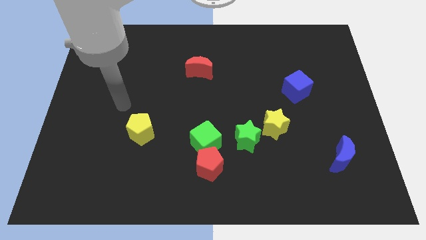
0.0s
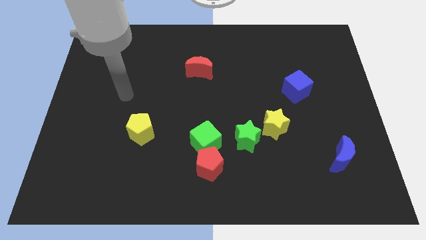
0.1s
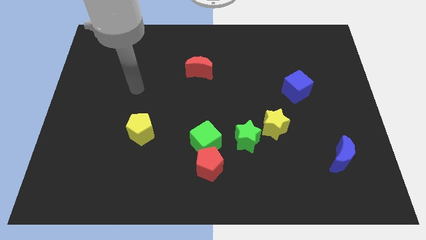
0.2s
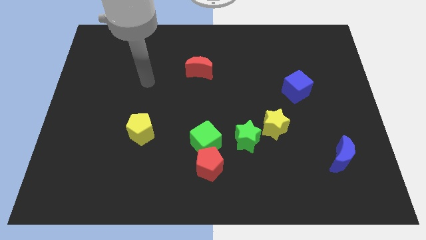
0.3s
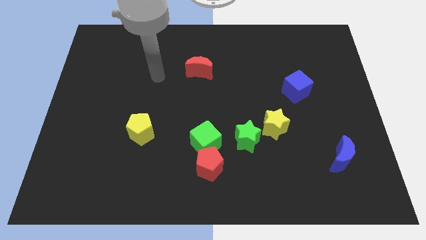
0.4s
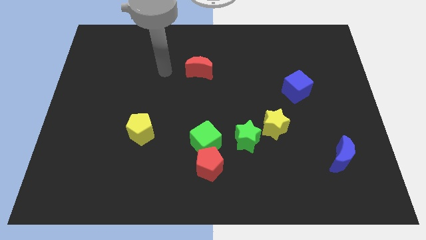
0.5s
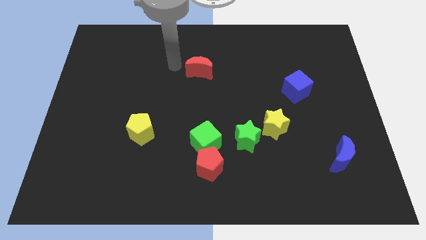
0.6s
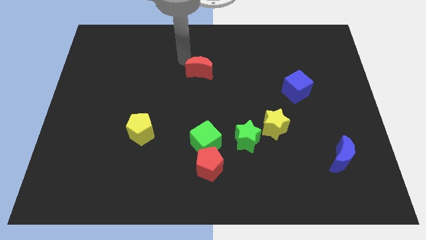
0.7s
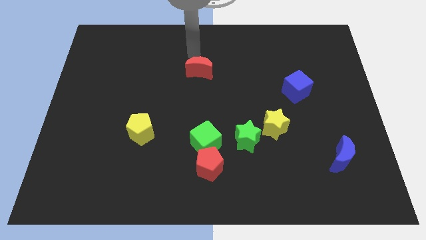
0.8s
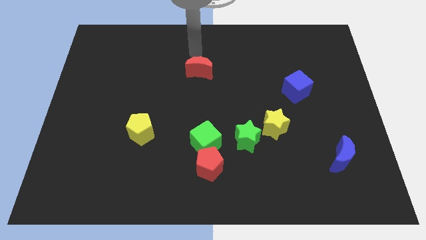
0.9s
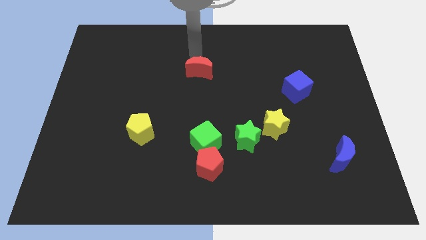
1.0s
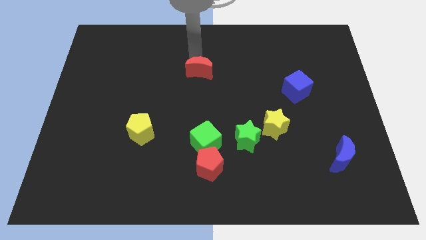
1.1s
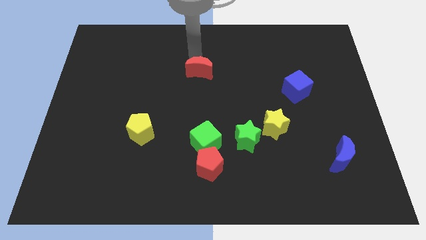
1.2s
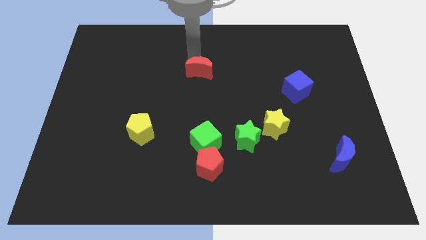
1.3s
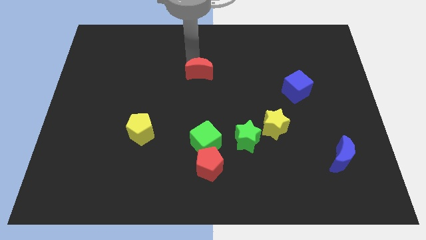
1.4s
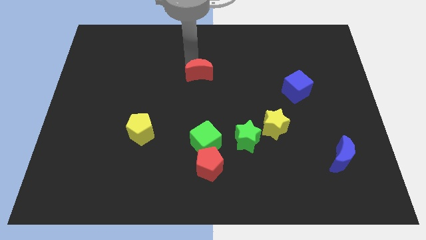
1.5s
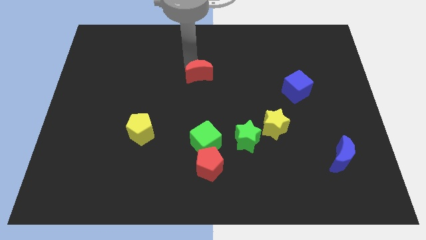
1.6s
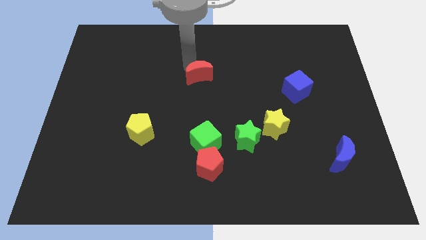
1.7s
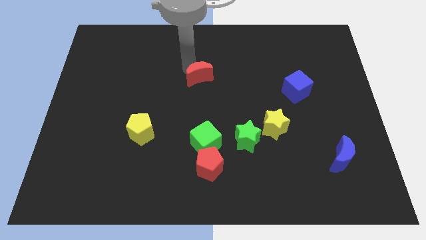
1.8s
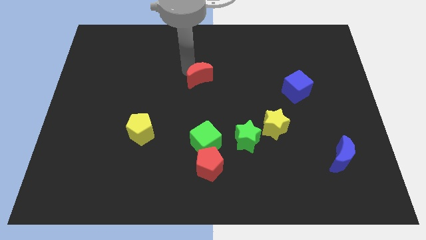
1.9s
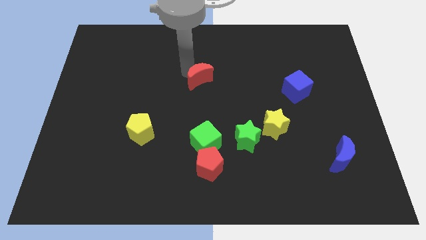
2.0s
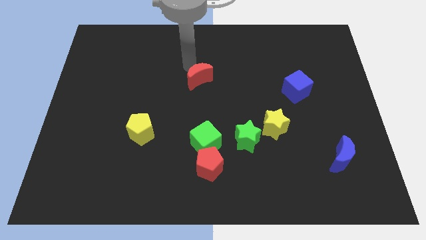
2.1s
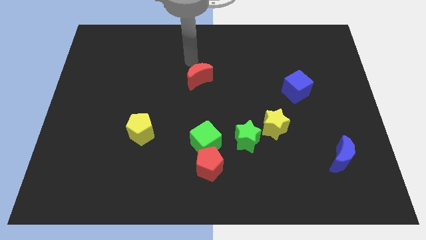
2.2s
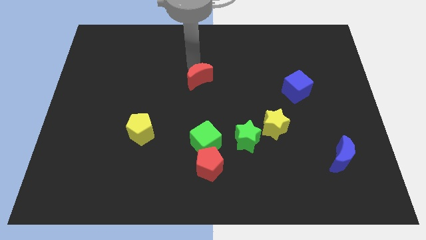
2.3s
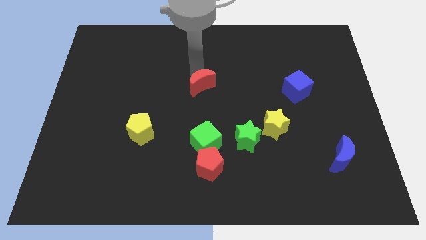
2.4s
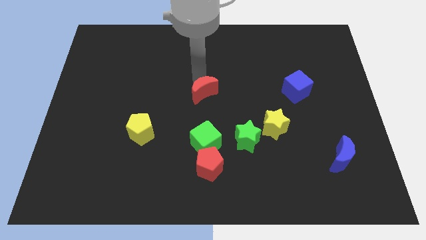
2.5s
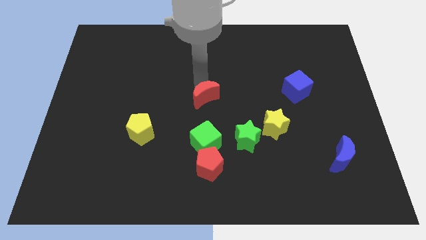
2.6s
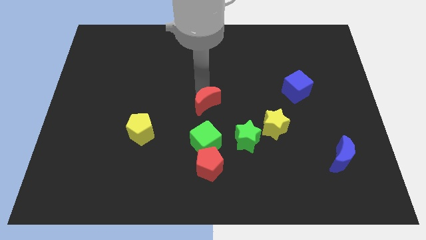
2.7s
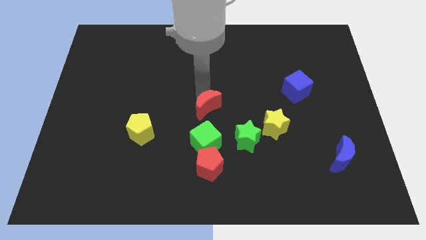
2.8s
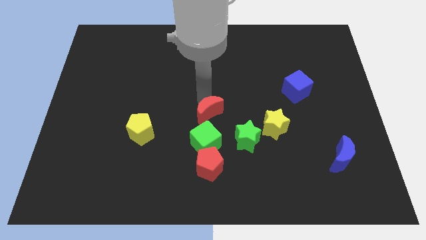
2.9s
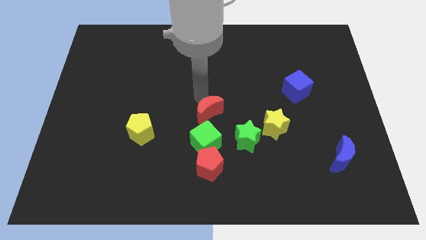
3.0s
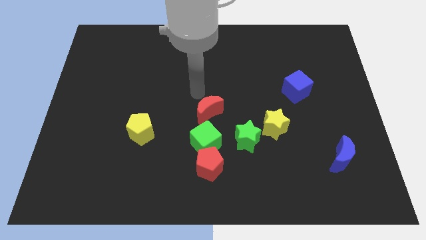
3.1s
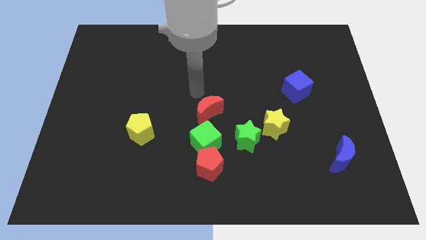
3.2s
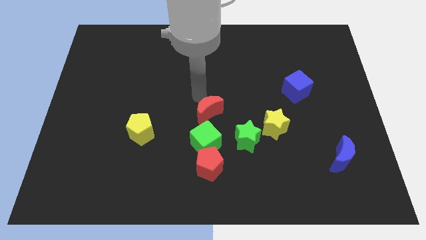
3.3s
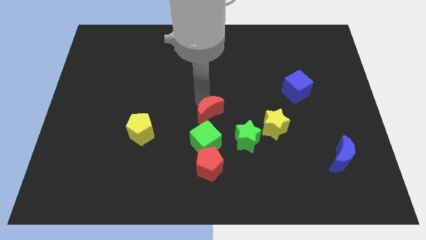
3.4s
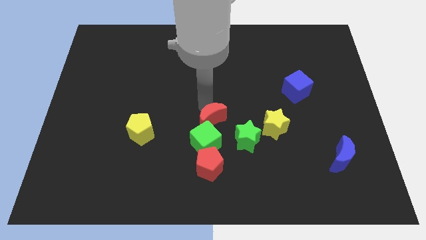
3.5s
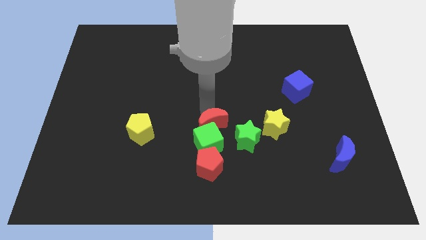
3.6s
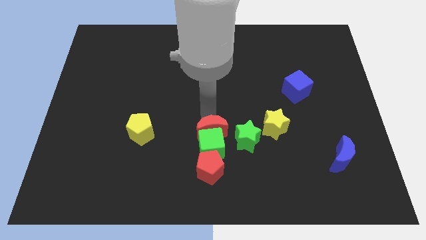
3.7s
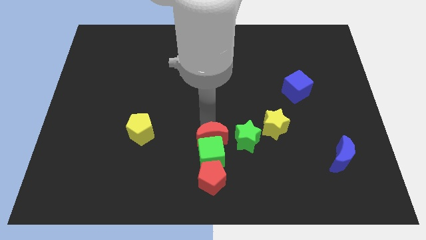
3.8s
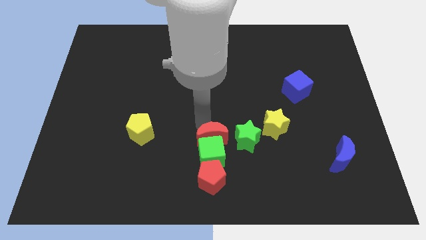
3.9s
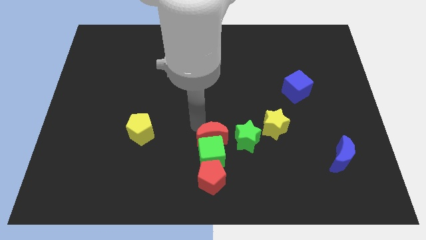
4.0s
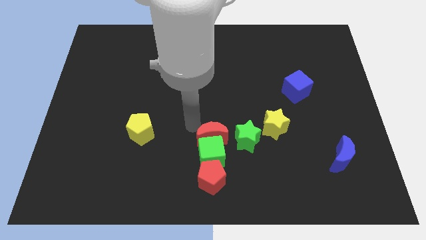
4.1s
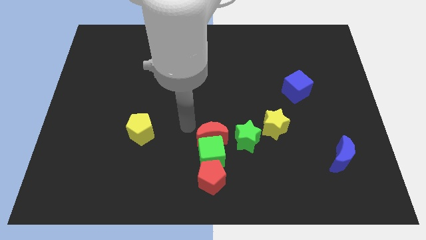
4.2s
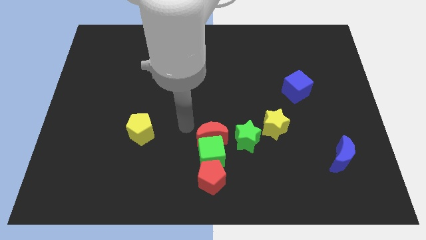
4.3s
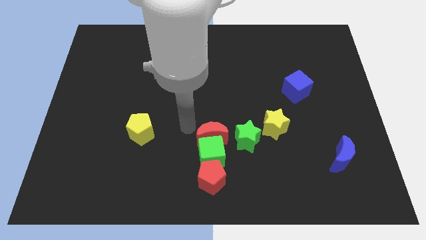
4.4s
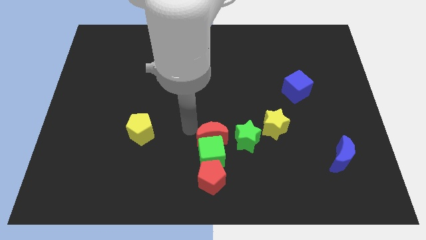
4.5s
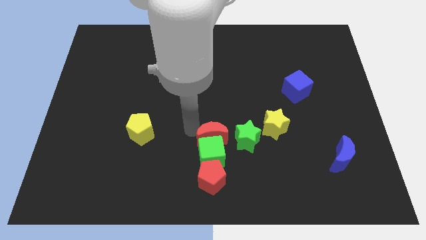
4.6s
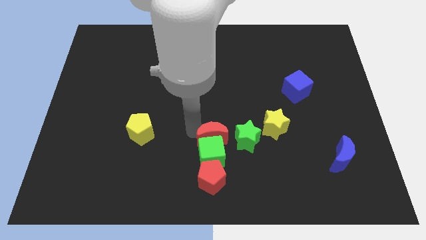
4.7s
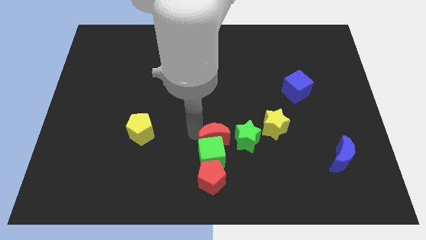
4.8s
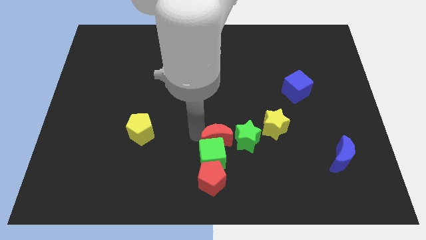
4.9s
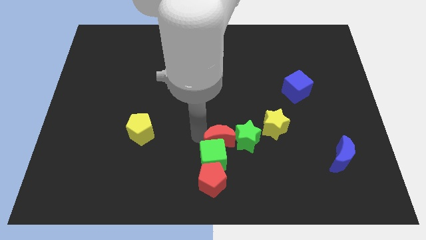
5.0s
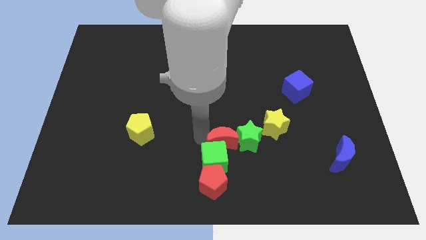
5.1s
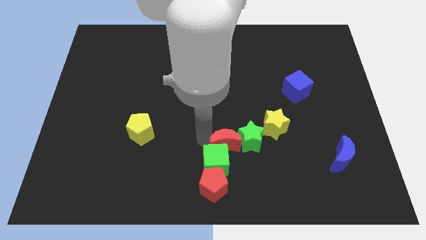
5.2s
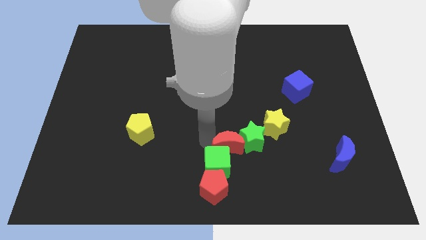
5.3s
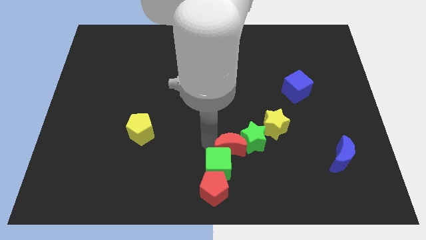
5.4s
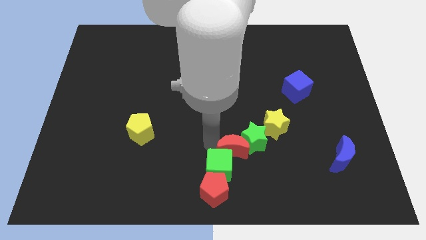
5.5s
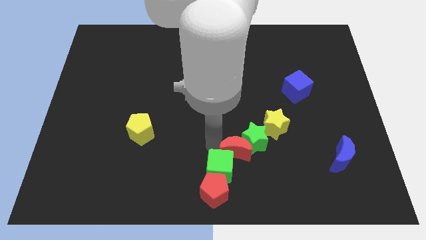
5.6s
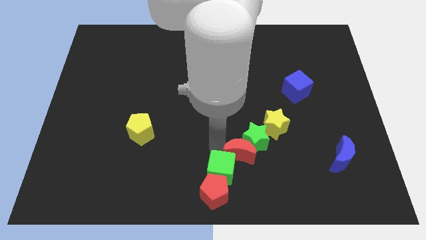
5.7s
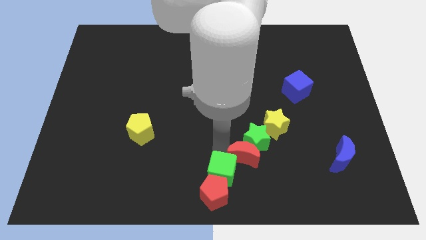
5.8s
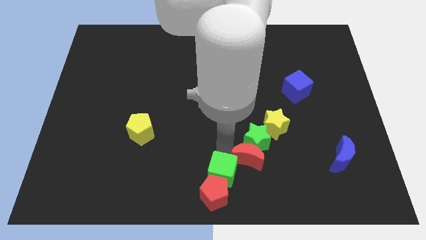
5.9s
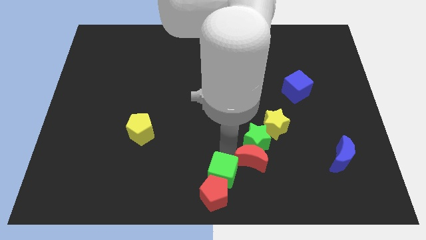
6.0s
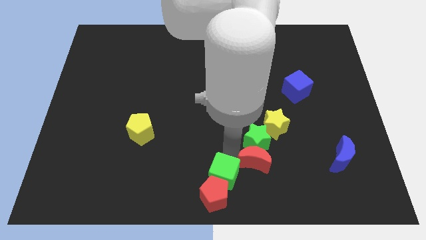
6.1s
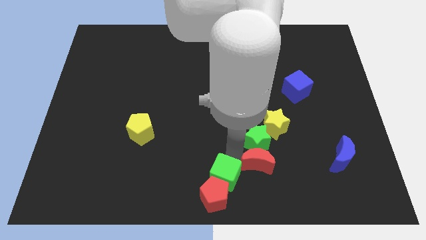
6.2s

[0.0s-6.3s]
slide the red moon below the yellow star

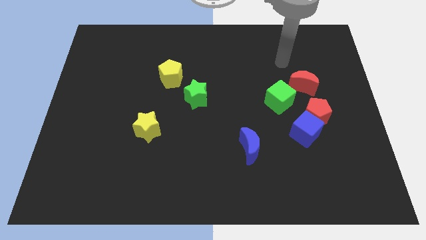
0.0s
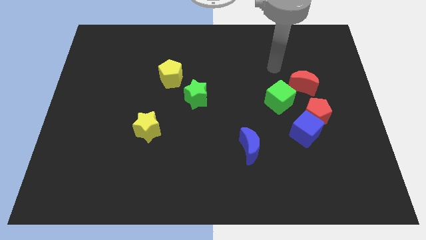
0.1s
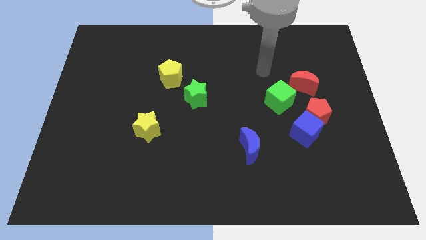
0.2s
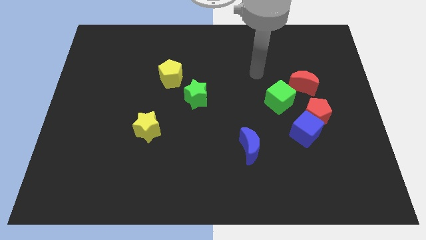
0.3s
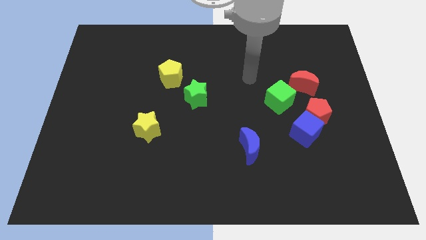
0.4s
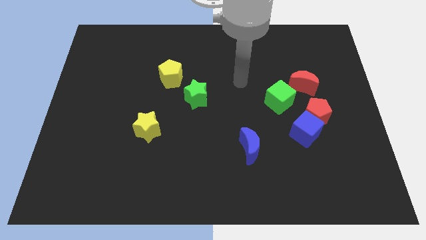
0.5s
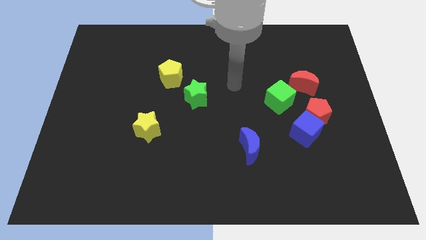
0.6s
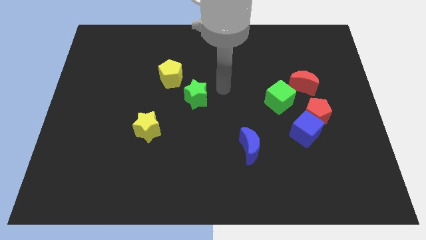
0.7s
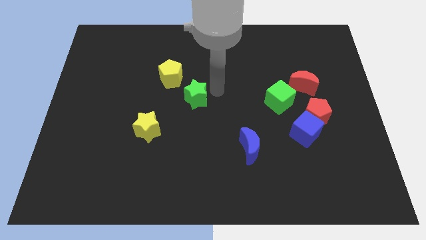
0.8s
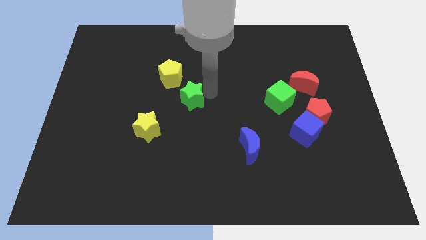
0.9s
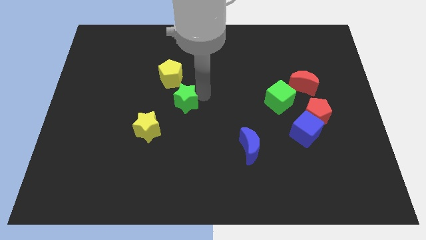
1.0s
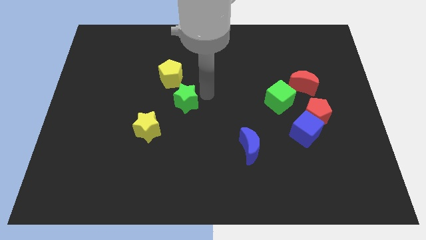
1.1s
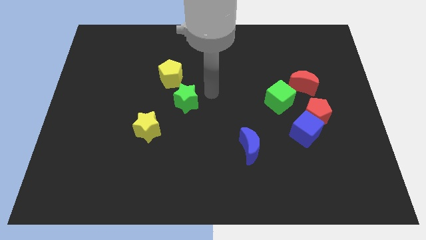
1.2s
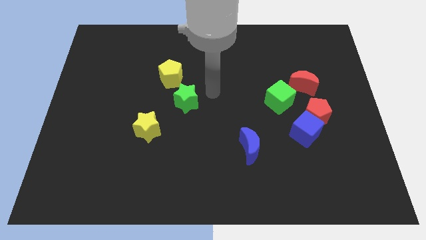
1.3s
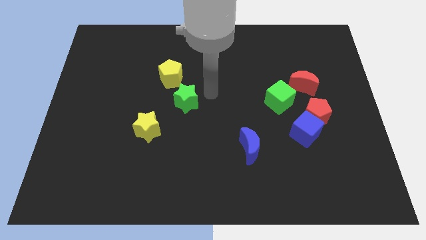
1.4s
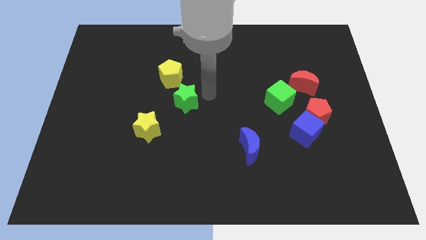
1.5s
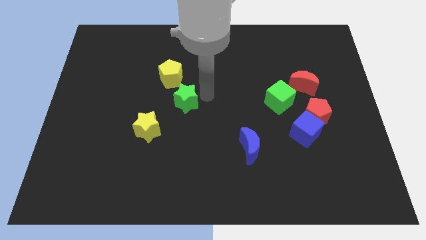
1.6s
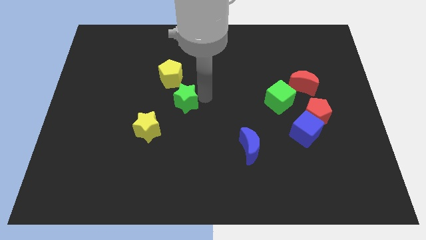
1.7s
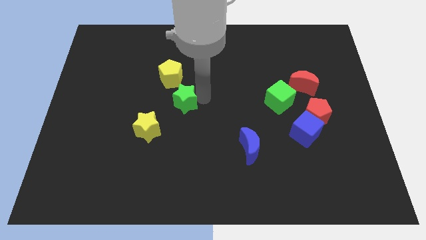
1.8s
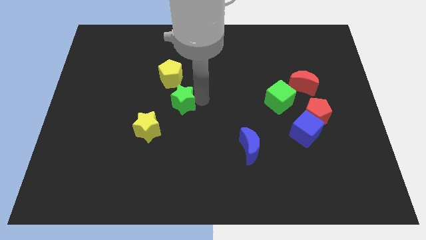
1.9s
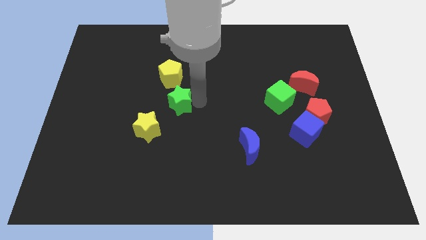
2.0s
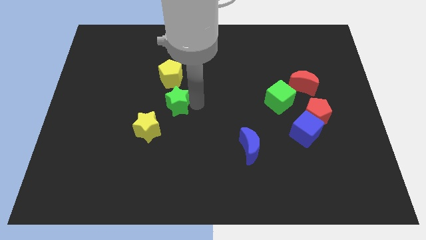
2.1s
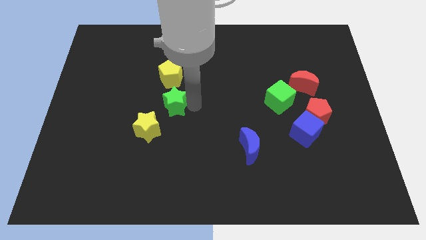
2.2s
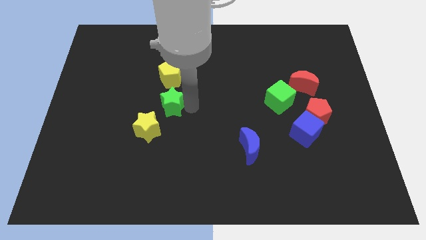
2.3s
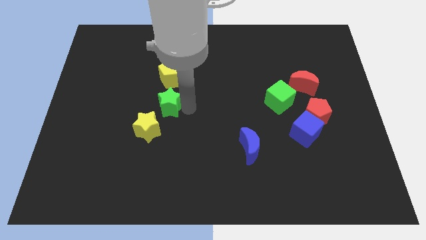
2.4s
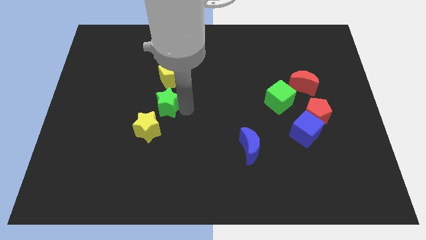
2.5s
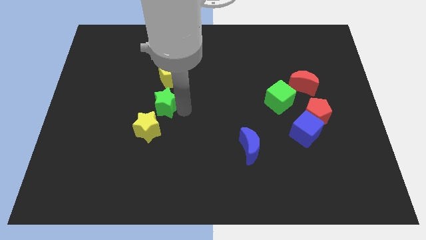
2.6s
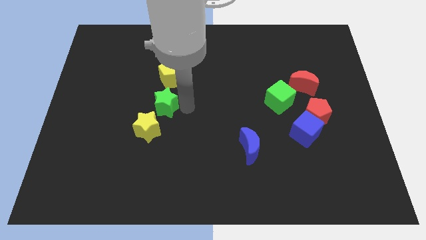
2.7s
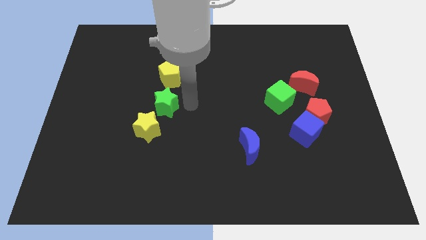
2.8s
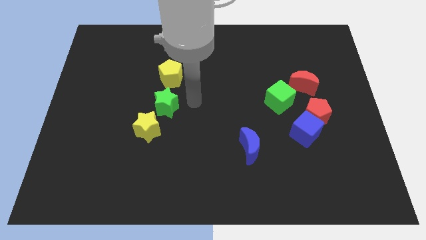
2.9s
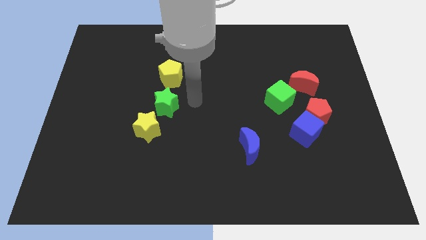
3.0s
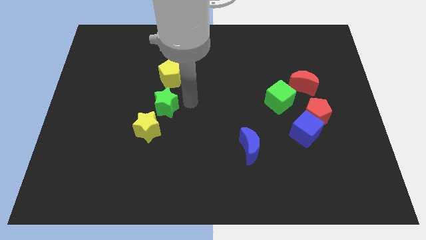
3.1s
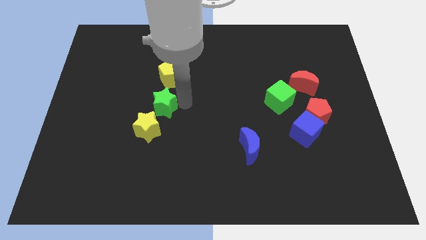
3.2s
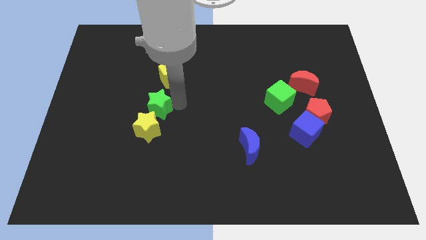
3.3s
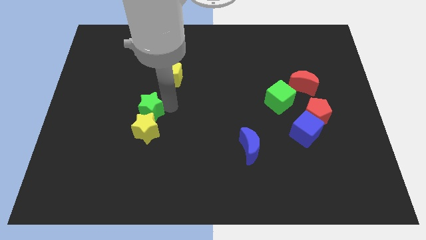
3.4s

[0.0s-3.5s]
put the green star diagonally up and to the left of the yellow star
